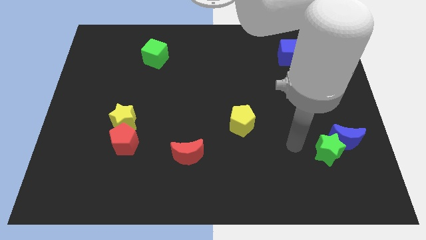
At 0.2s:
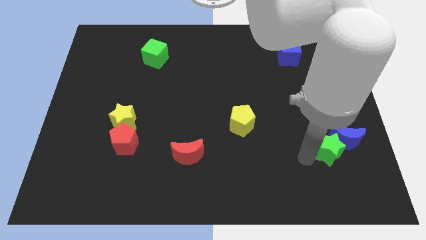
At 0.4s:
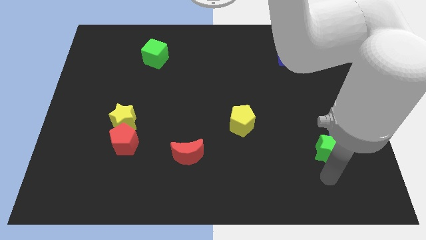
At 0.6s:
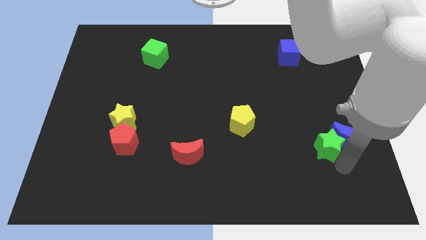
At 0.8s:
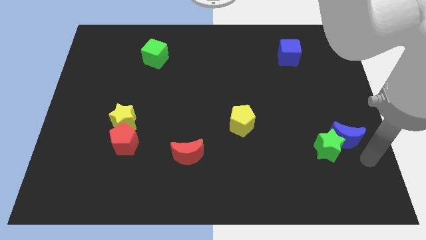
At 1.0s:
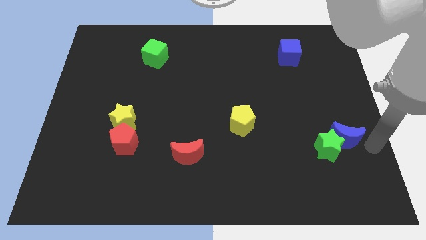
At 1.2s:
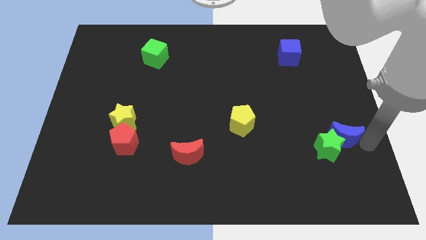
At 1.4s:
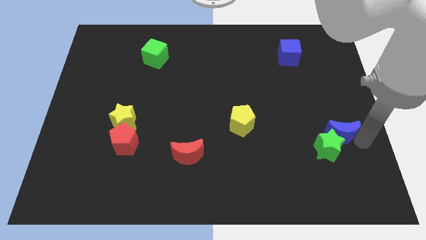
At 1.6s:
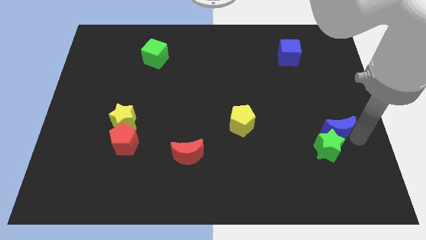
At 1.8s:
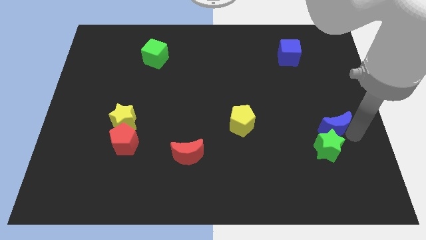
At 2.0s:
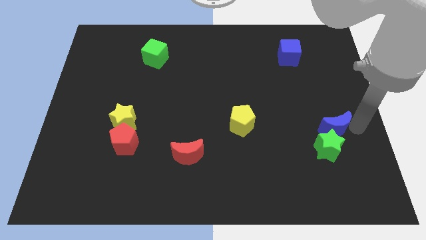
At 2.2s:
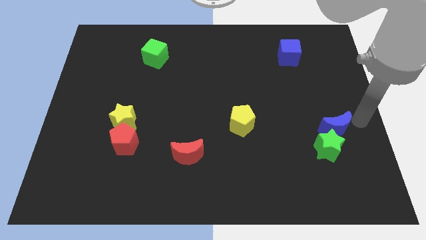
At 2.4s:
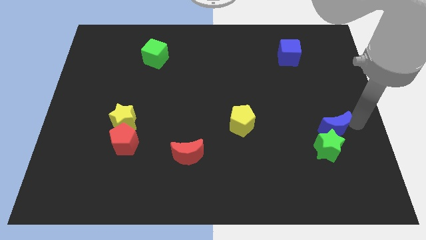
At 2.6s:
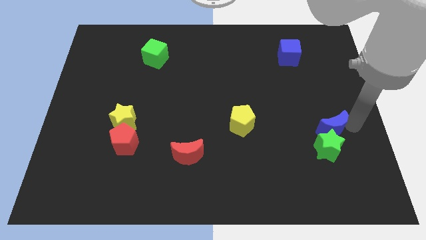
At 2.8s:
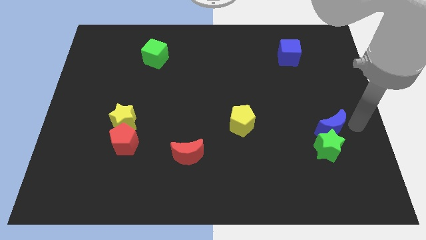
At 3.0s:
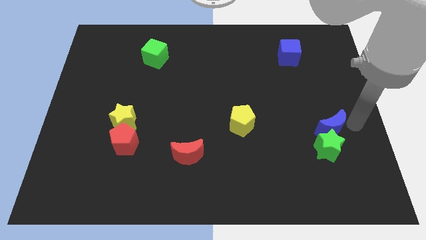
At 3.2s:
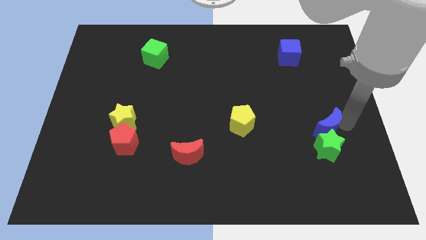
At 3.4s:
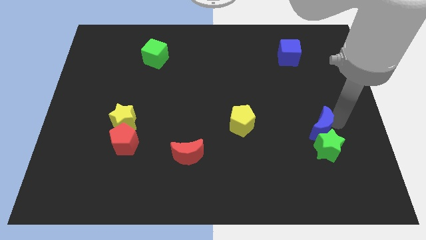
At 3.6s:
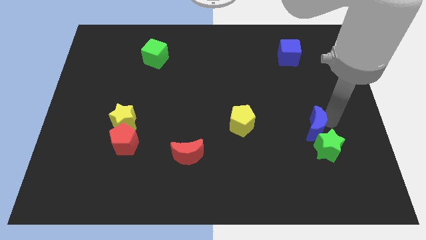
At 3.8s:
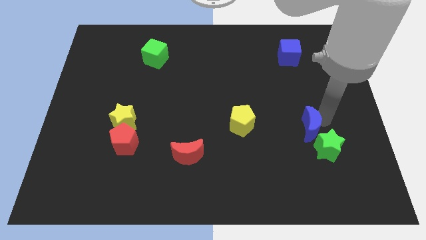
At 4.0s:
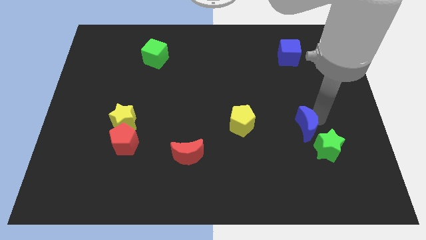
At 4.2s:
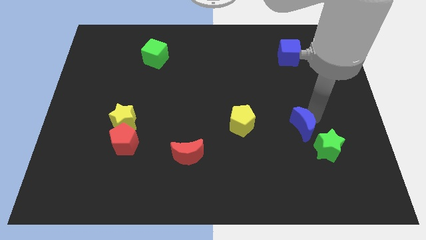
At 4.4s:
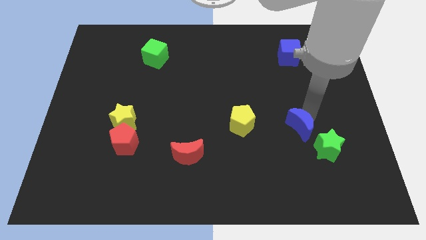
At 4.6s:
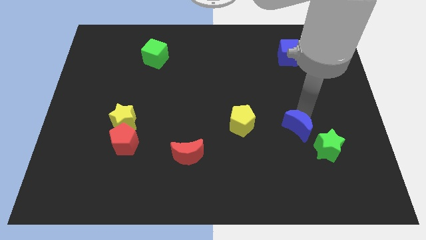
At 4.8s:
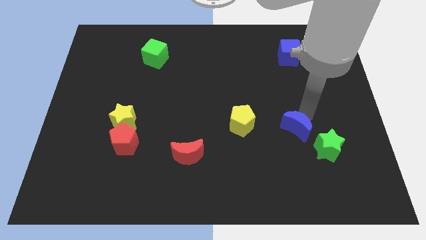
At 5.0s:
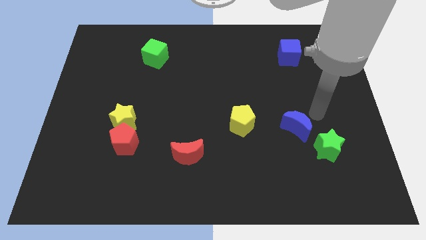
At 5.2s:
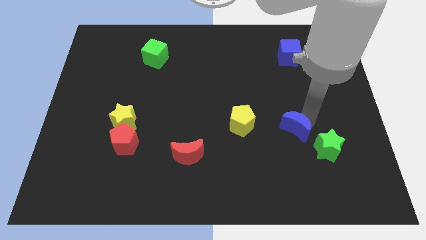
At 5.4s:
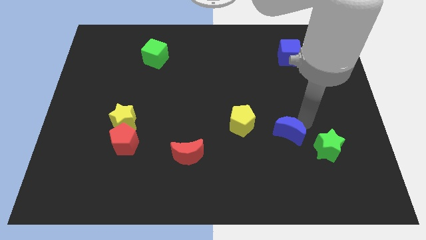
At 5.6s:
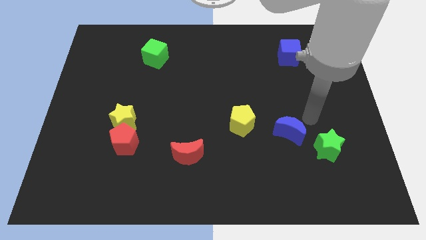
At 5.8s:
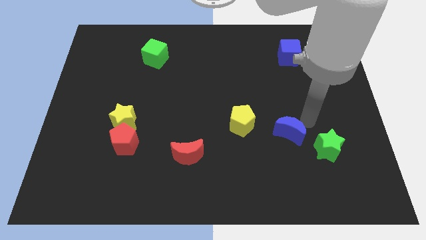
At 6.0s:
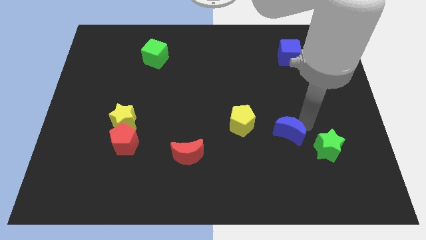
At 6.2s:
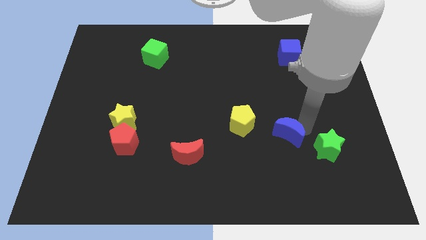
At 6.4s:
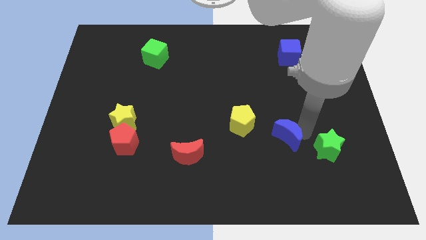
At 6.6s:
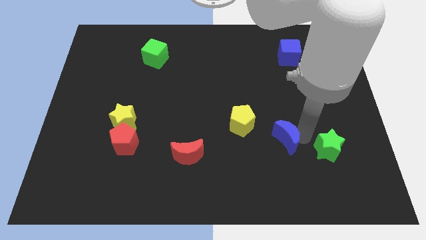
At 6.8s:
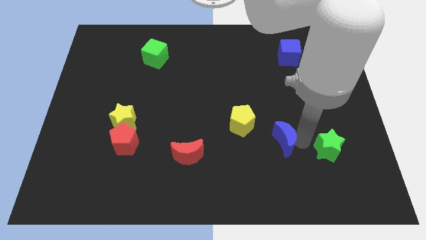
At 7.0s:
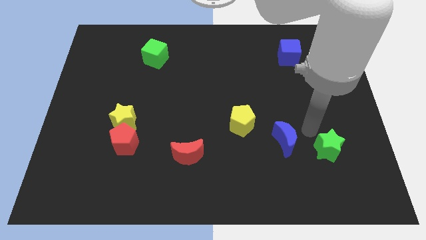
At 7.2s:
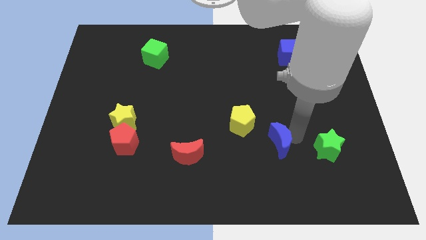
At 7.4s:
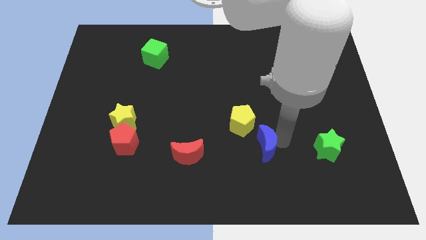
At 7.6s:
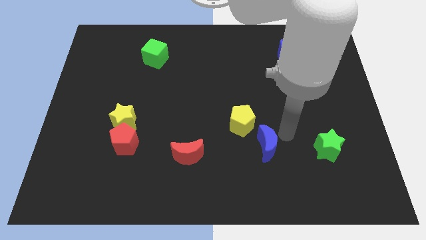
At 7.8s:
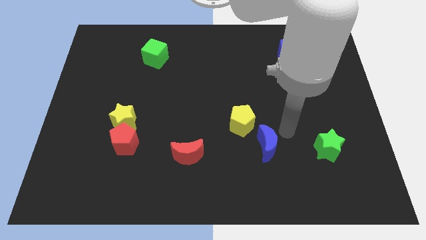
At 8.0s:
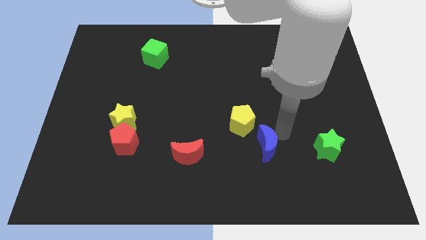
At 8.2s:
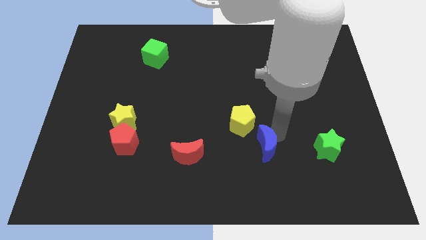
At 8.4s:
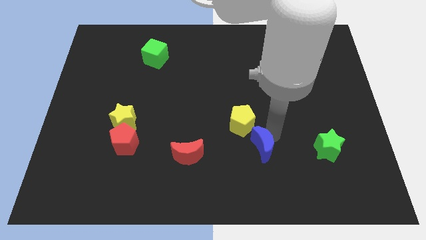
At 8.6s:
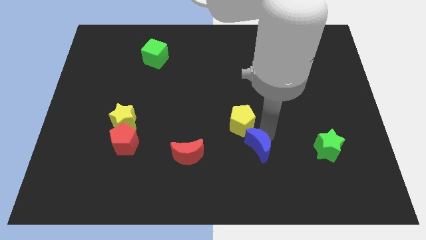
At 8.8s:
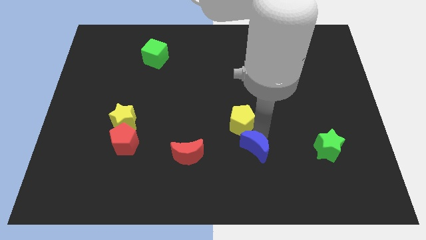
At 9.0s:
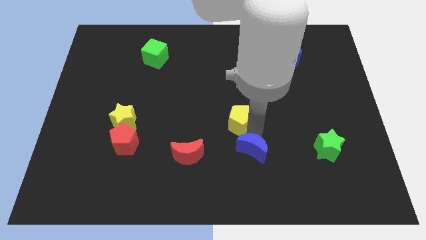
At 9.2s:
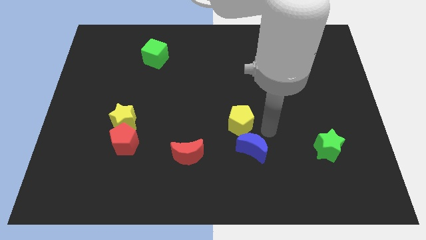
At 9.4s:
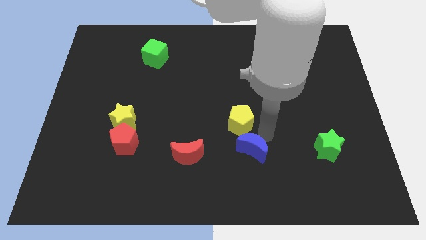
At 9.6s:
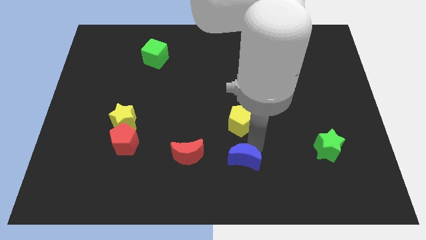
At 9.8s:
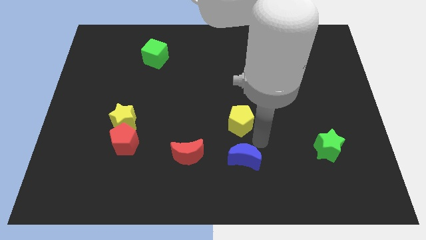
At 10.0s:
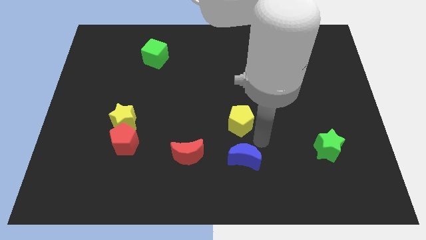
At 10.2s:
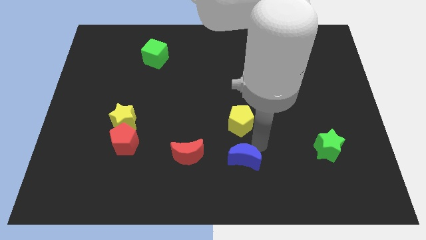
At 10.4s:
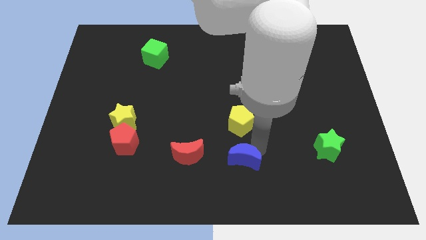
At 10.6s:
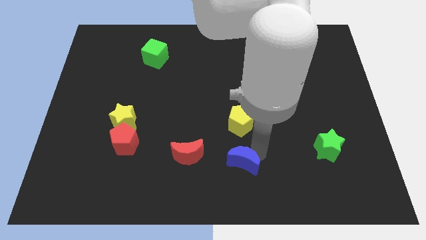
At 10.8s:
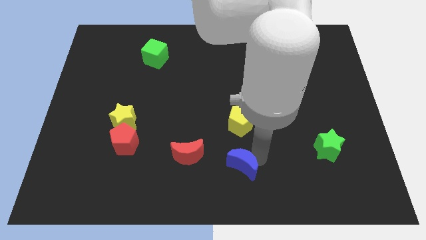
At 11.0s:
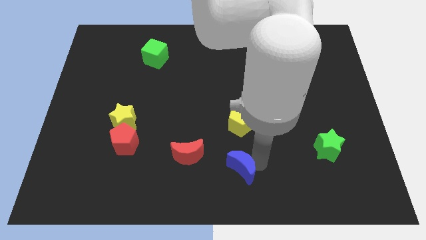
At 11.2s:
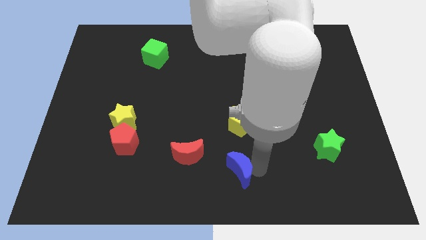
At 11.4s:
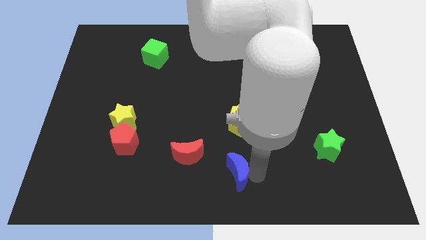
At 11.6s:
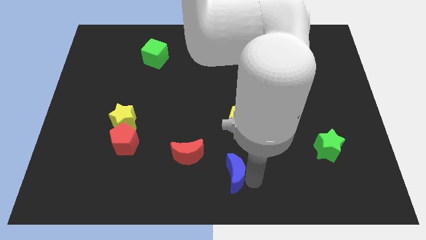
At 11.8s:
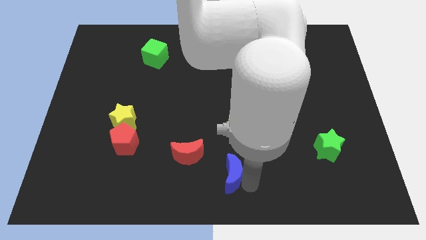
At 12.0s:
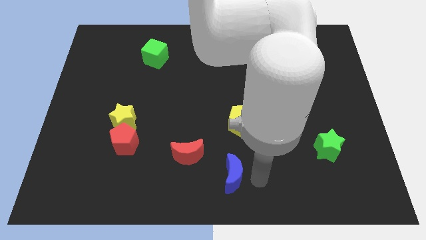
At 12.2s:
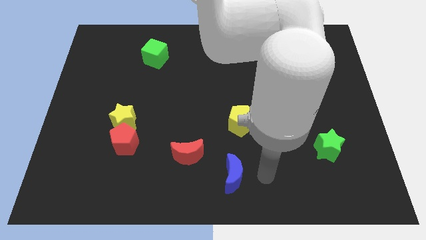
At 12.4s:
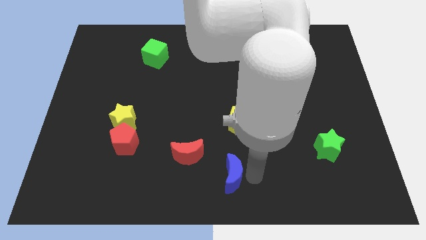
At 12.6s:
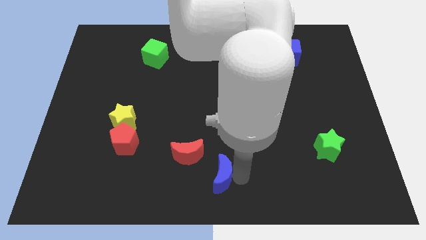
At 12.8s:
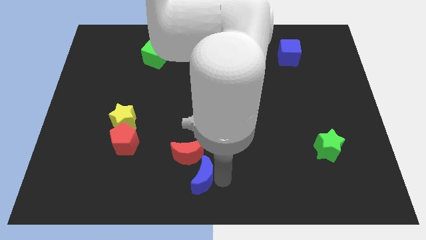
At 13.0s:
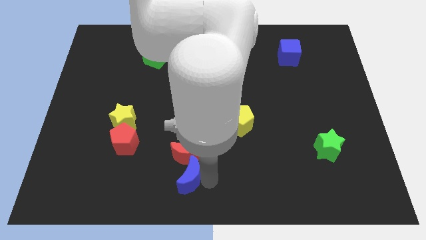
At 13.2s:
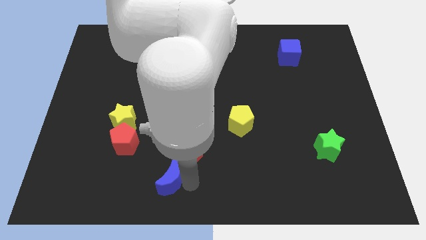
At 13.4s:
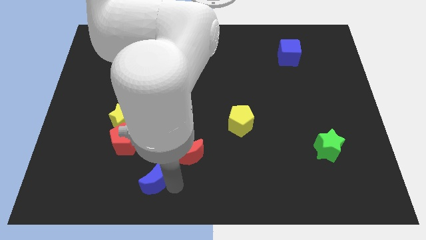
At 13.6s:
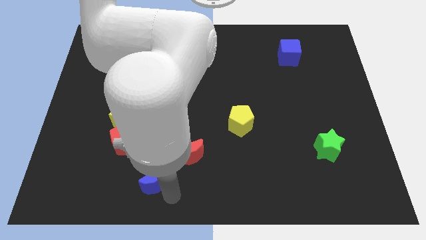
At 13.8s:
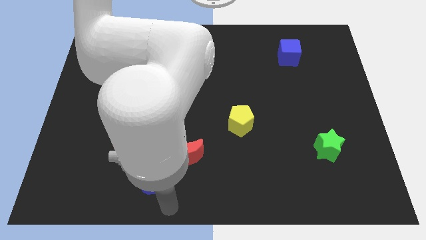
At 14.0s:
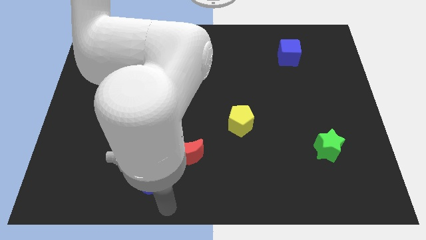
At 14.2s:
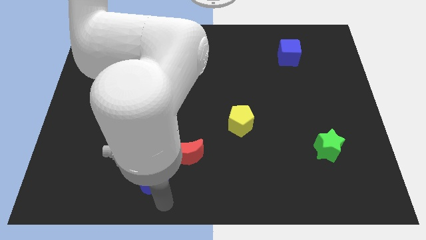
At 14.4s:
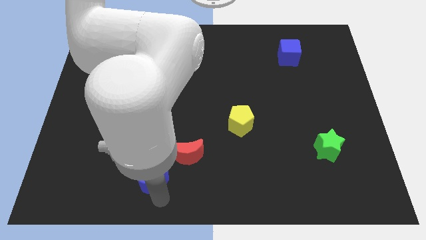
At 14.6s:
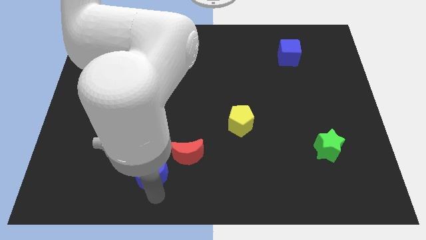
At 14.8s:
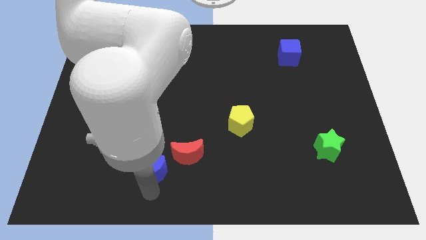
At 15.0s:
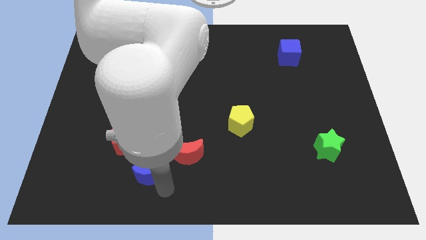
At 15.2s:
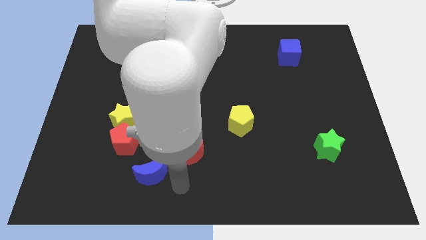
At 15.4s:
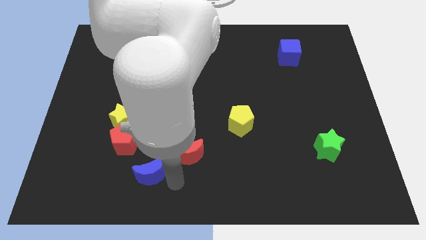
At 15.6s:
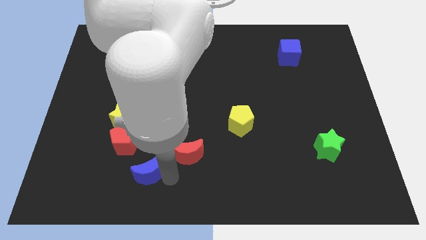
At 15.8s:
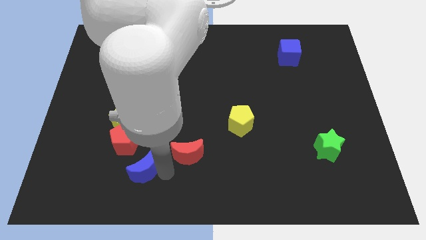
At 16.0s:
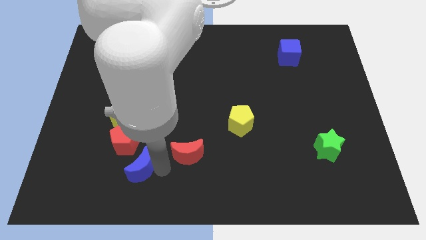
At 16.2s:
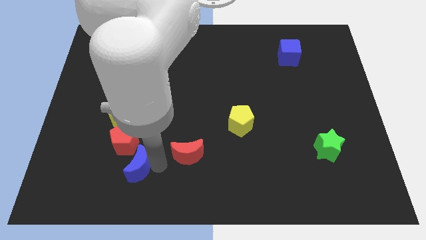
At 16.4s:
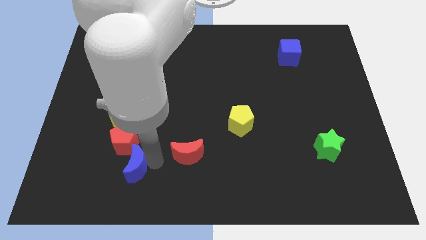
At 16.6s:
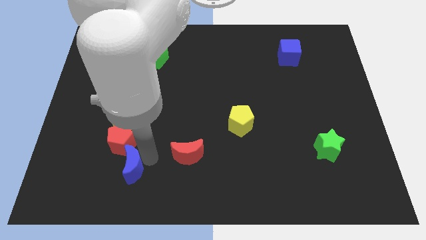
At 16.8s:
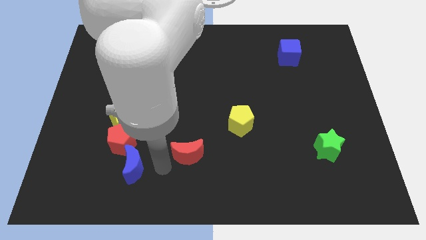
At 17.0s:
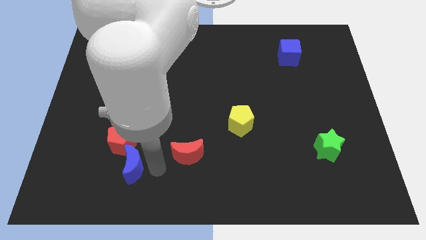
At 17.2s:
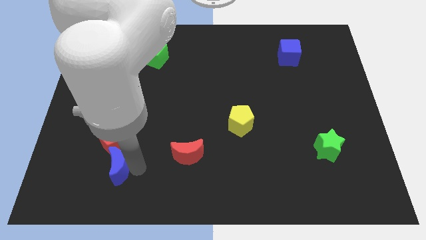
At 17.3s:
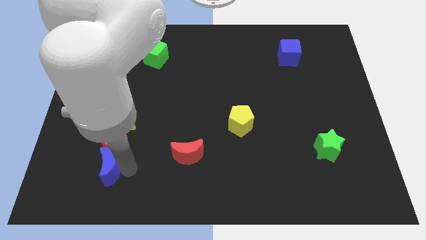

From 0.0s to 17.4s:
move the blue moon to the bottom left side of the red pentagon
